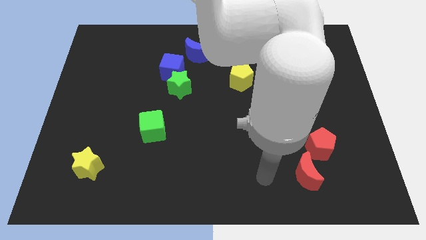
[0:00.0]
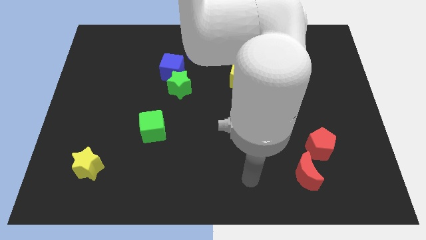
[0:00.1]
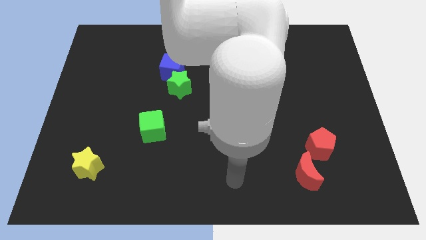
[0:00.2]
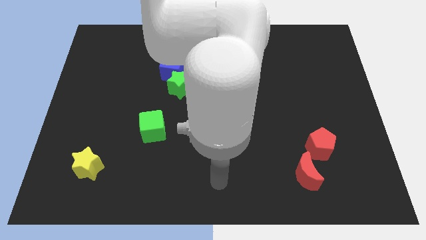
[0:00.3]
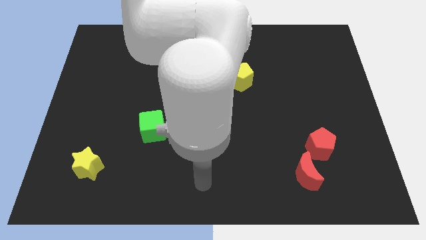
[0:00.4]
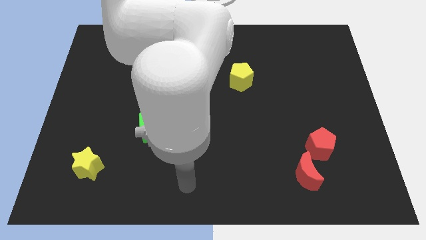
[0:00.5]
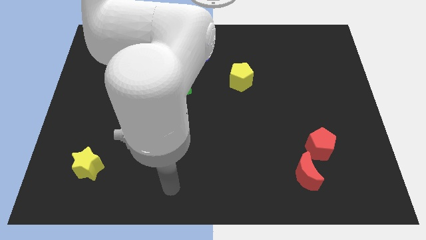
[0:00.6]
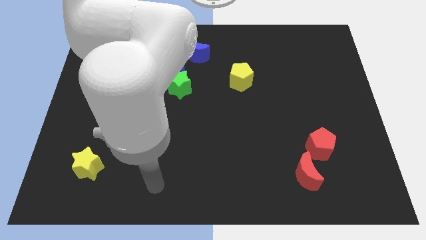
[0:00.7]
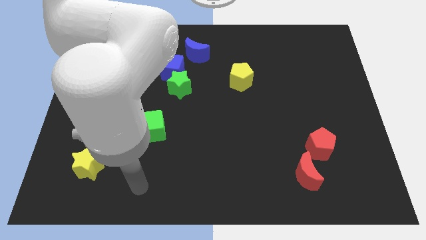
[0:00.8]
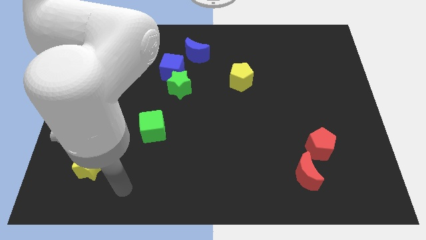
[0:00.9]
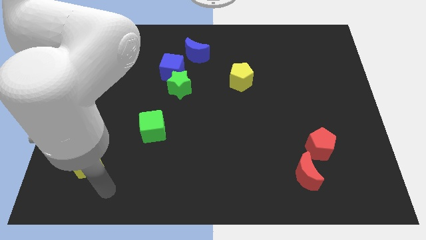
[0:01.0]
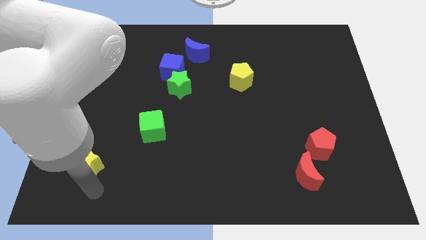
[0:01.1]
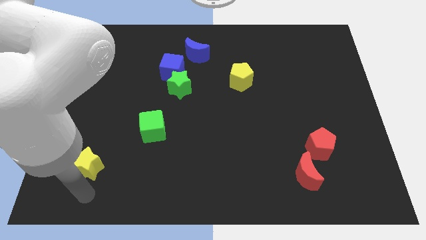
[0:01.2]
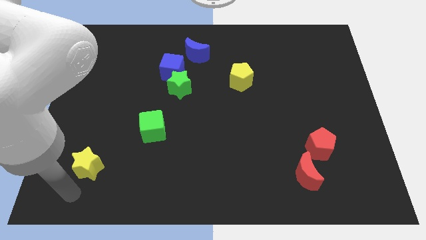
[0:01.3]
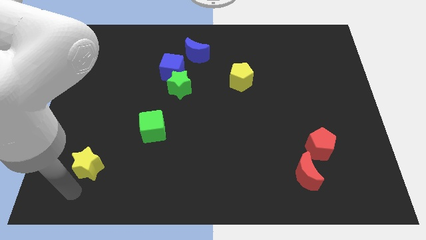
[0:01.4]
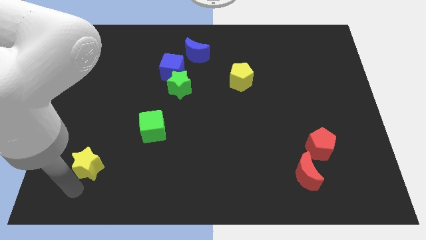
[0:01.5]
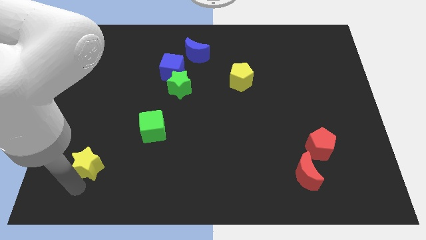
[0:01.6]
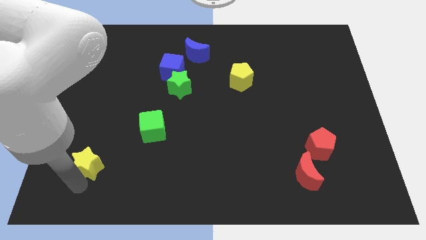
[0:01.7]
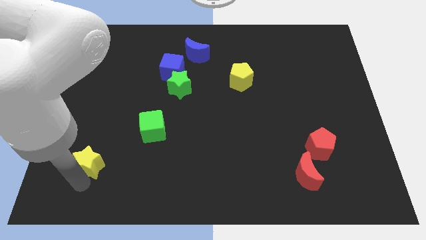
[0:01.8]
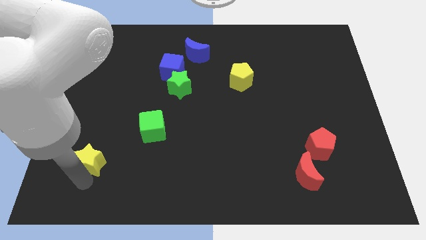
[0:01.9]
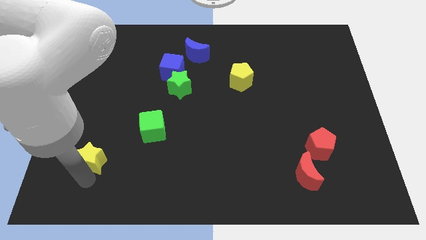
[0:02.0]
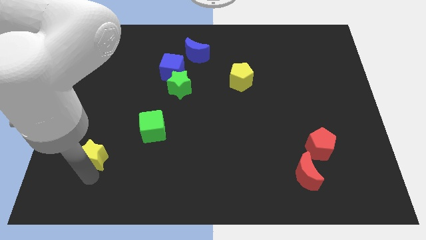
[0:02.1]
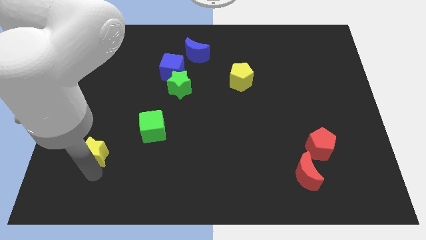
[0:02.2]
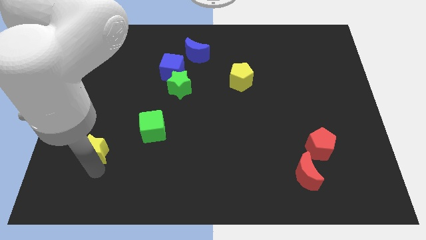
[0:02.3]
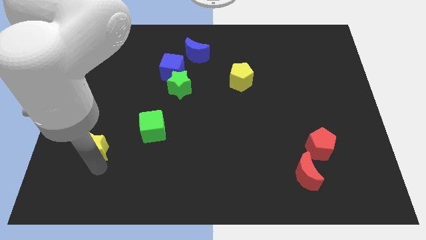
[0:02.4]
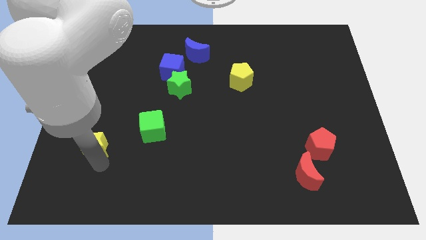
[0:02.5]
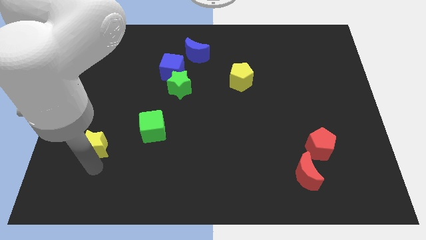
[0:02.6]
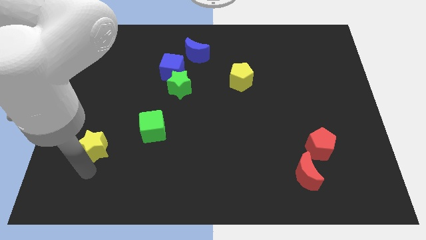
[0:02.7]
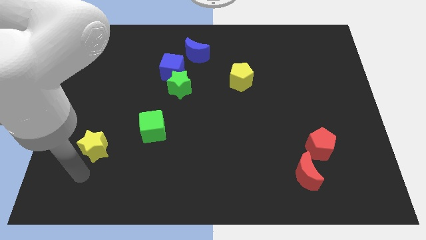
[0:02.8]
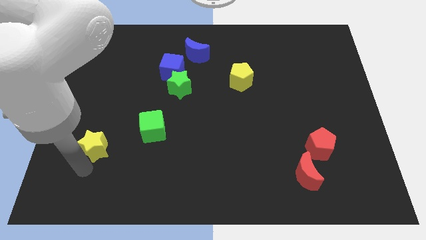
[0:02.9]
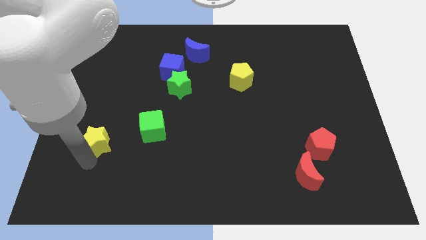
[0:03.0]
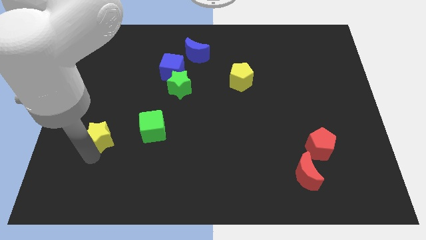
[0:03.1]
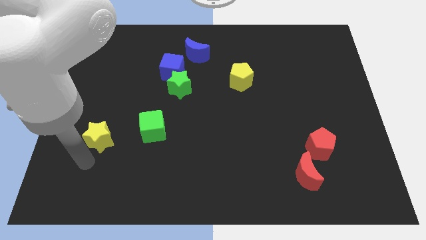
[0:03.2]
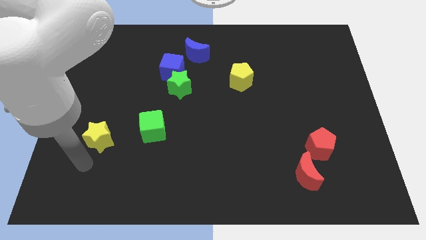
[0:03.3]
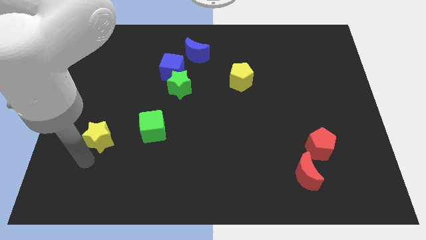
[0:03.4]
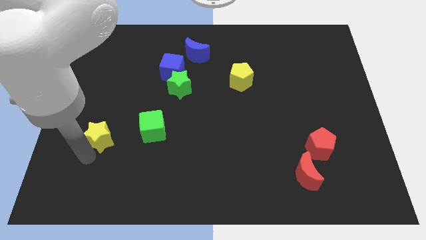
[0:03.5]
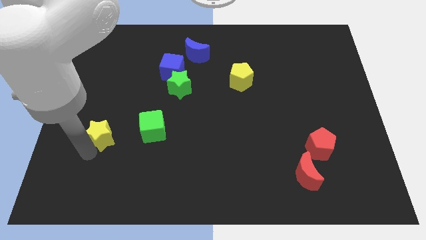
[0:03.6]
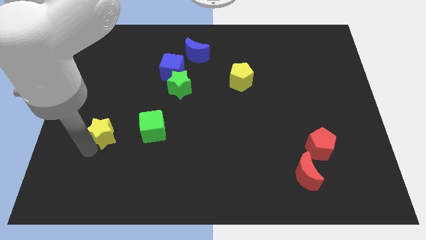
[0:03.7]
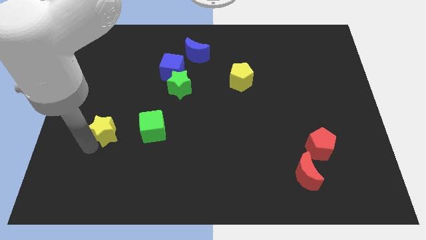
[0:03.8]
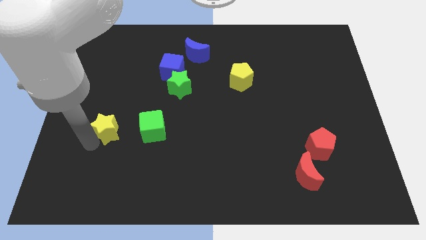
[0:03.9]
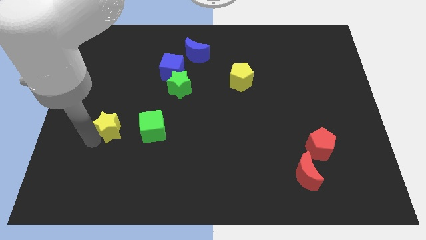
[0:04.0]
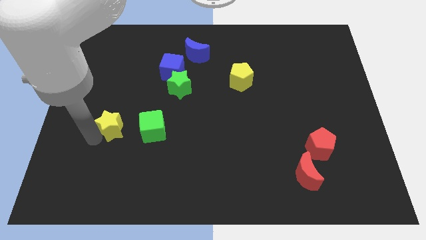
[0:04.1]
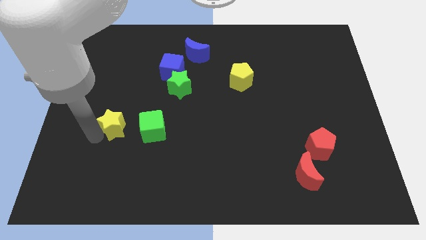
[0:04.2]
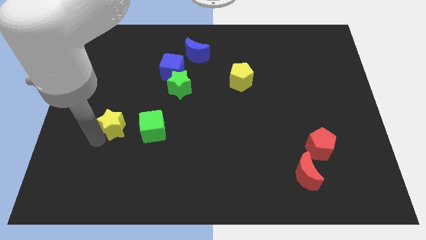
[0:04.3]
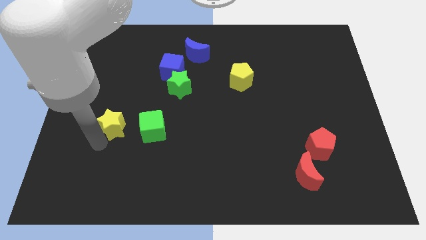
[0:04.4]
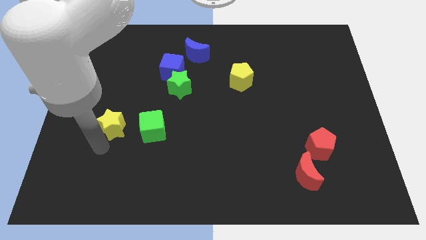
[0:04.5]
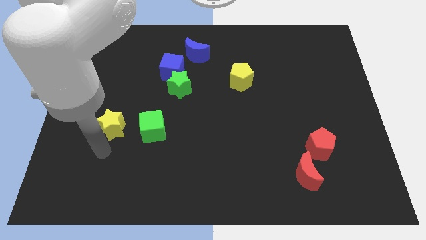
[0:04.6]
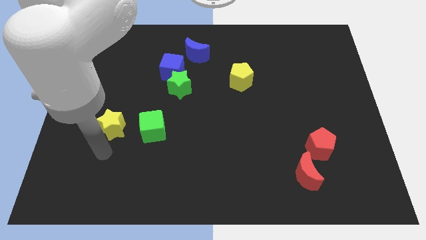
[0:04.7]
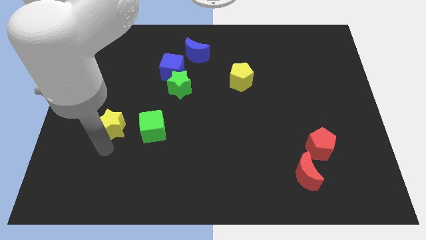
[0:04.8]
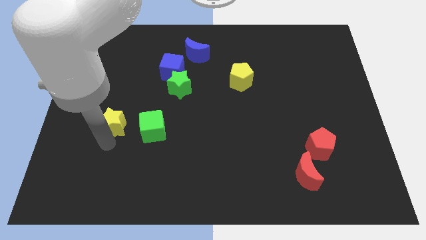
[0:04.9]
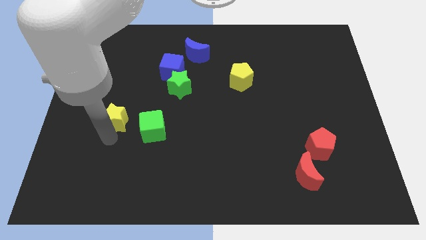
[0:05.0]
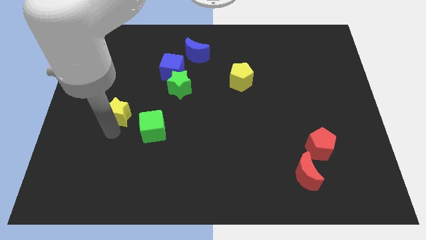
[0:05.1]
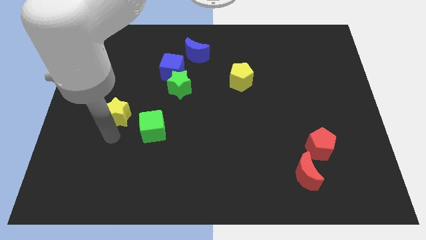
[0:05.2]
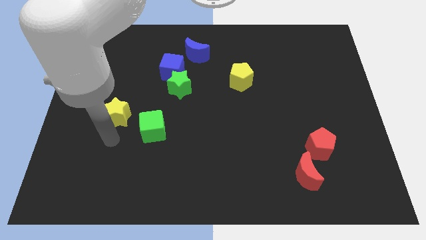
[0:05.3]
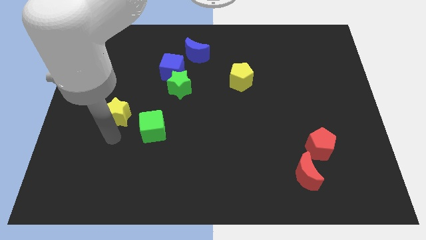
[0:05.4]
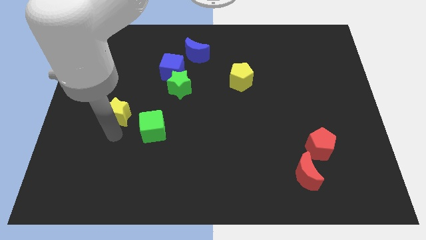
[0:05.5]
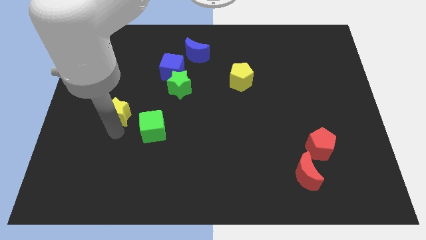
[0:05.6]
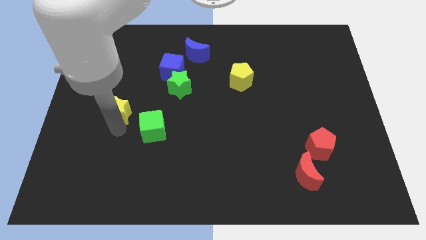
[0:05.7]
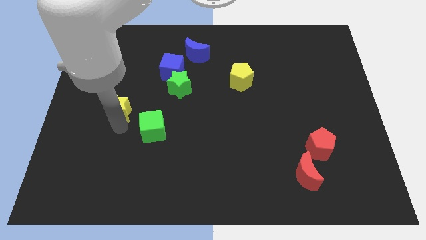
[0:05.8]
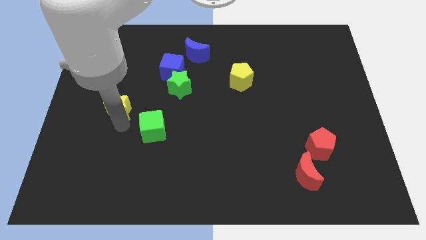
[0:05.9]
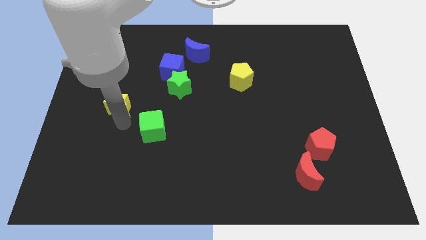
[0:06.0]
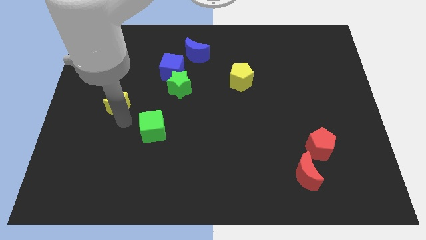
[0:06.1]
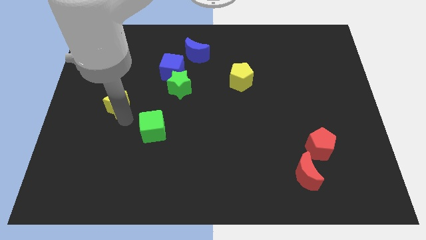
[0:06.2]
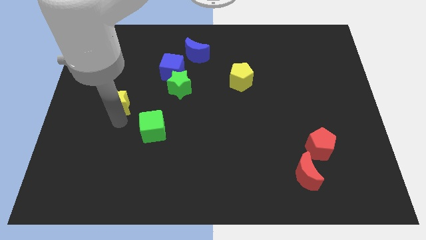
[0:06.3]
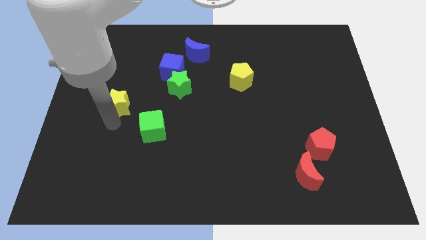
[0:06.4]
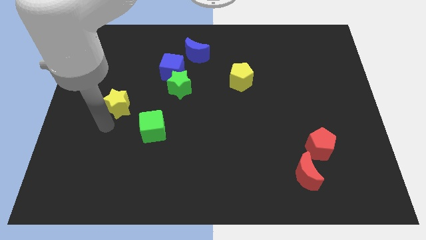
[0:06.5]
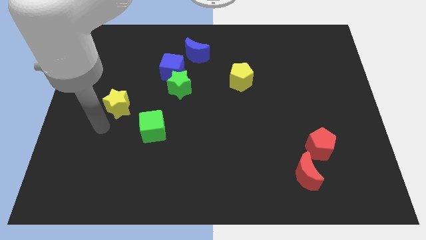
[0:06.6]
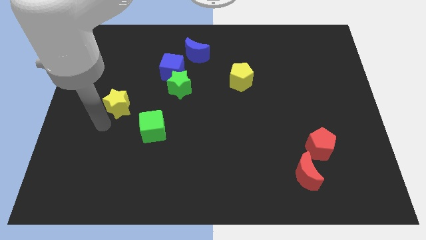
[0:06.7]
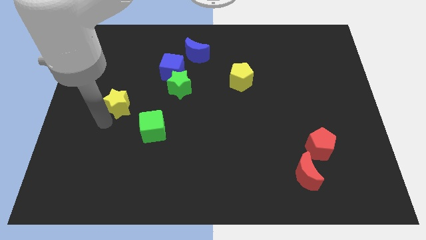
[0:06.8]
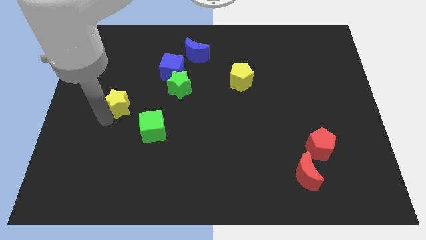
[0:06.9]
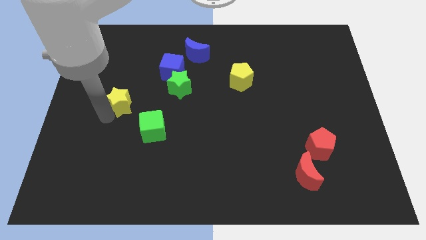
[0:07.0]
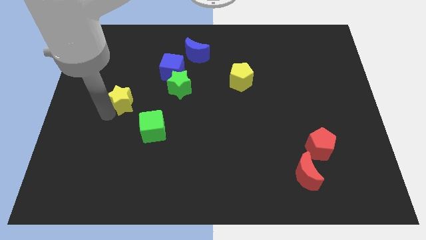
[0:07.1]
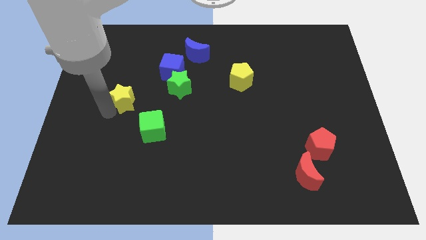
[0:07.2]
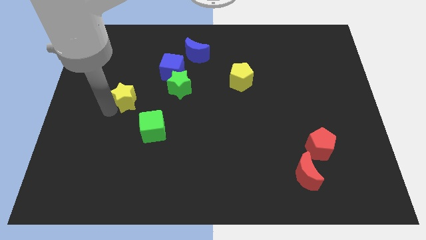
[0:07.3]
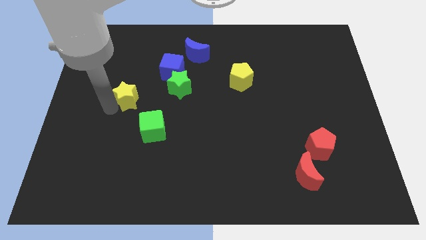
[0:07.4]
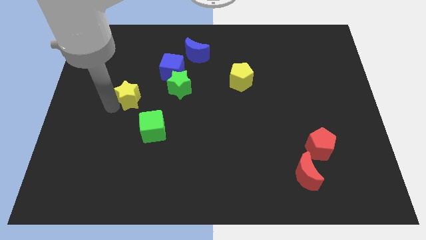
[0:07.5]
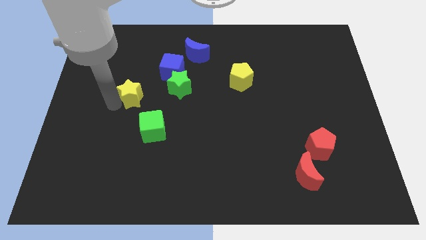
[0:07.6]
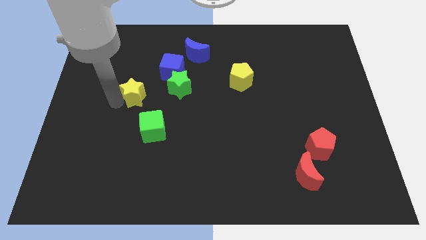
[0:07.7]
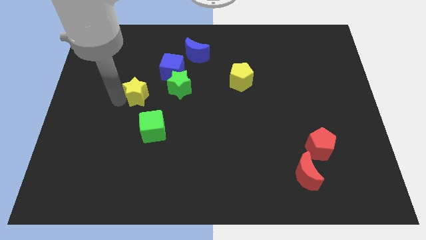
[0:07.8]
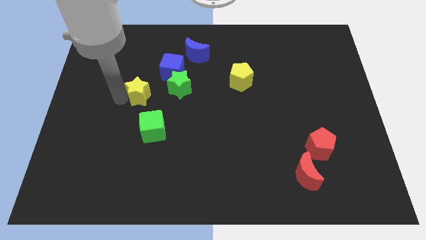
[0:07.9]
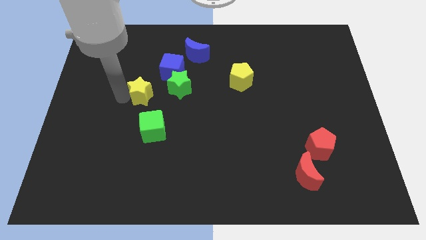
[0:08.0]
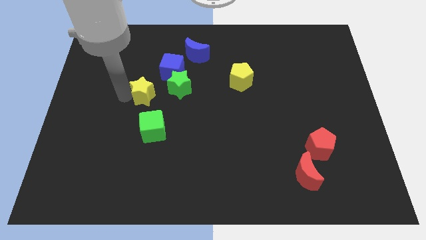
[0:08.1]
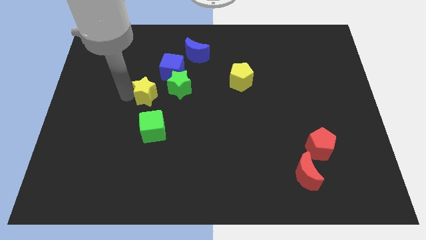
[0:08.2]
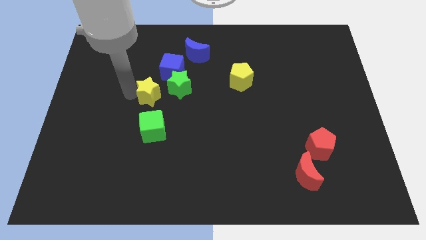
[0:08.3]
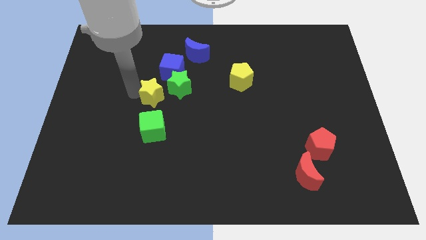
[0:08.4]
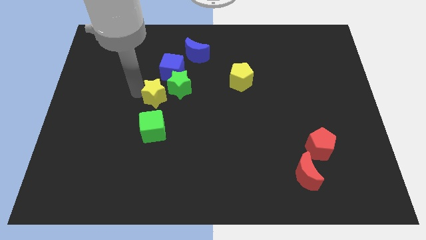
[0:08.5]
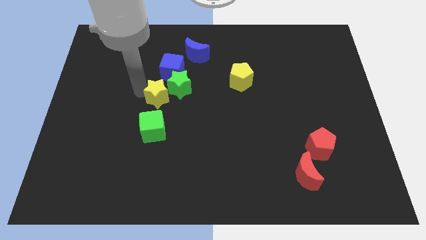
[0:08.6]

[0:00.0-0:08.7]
move the yellow star next to the green star
